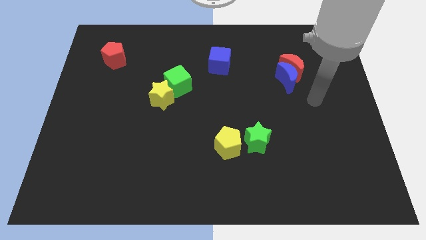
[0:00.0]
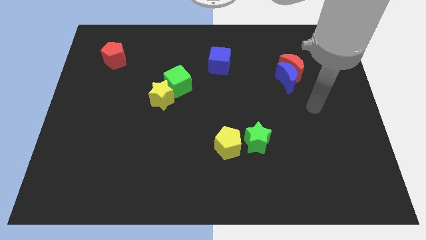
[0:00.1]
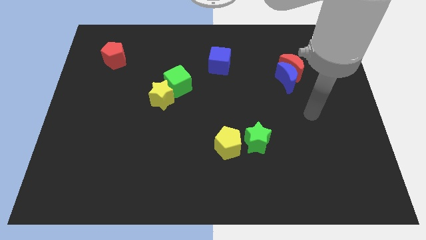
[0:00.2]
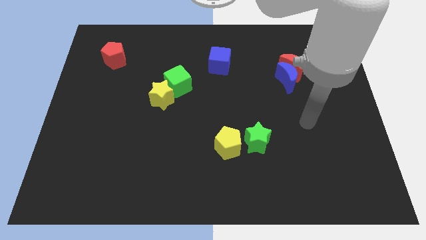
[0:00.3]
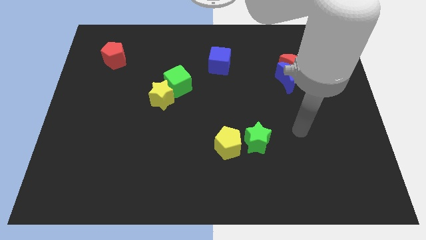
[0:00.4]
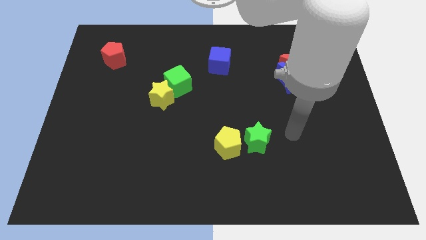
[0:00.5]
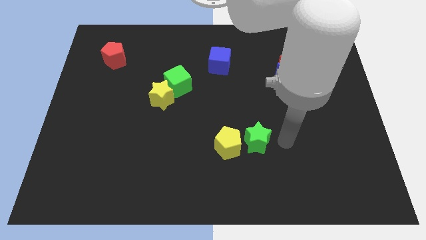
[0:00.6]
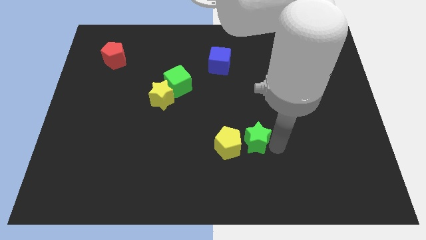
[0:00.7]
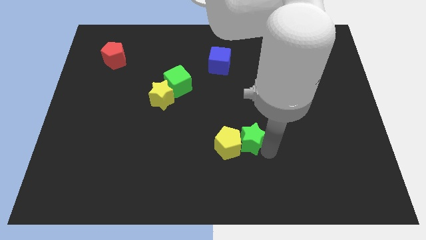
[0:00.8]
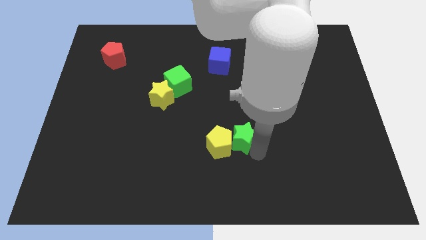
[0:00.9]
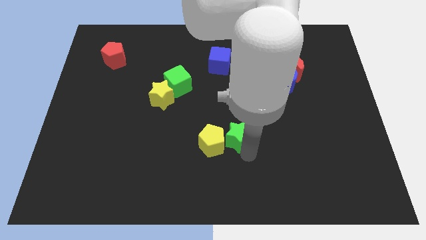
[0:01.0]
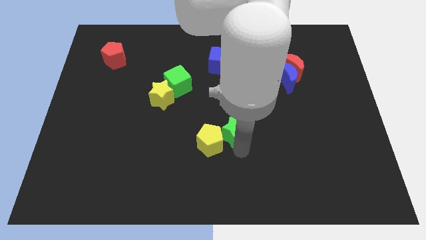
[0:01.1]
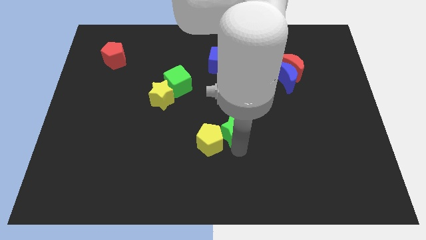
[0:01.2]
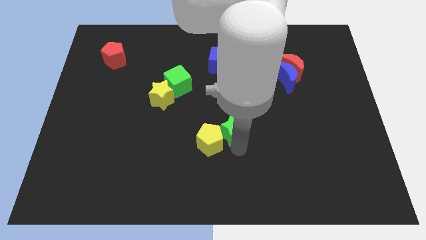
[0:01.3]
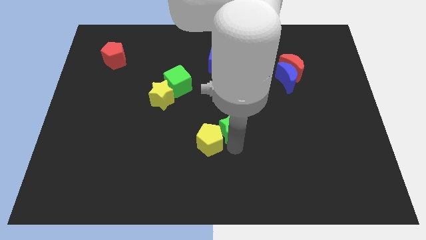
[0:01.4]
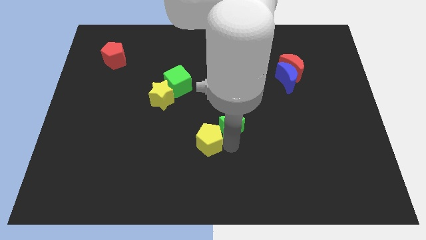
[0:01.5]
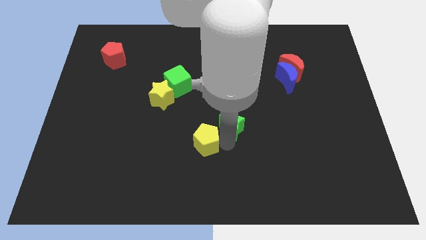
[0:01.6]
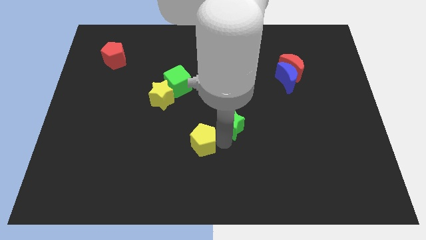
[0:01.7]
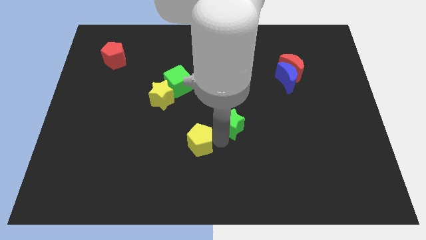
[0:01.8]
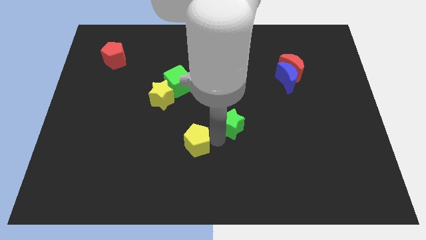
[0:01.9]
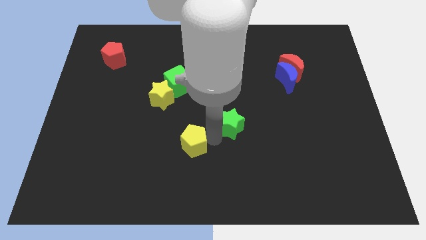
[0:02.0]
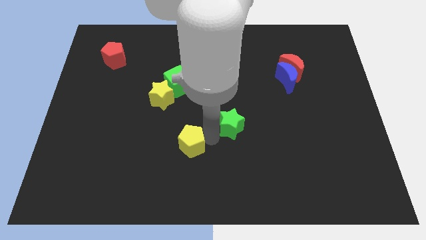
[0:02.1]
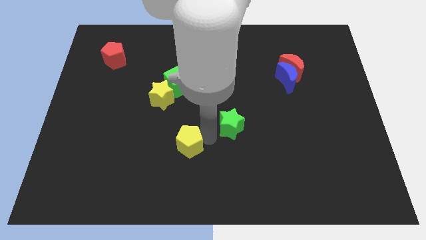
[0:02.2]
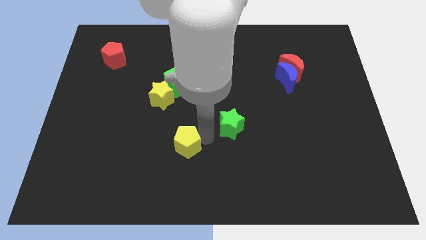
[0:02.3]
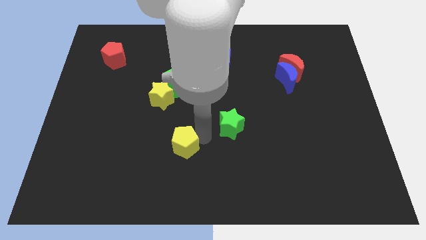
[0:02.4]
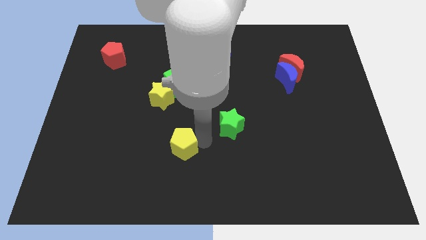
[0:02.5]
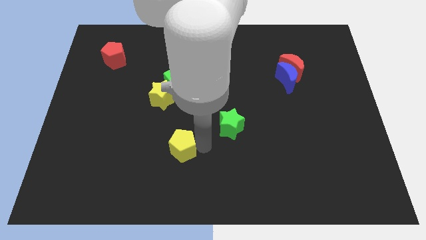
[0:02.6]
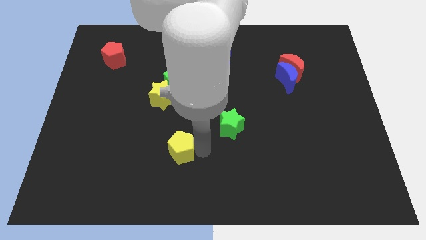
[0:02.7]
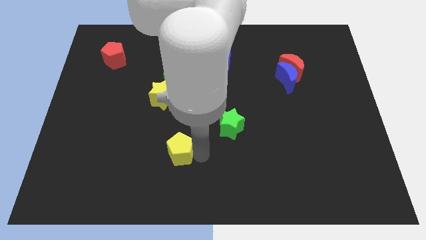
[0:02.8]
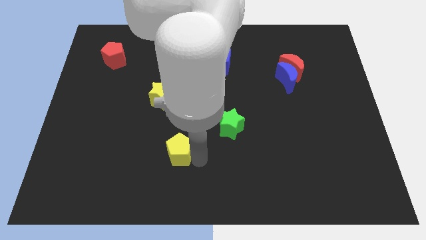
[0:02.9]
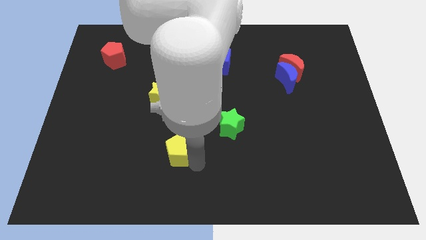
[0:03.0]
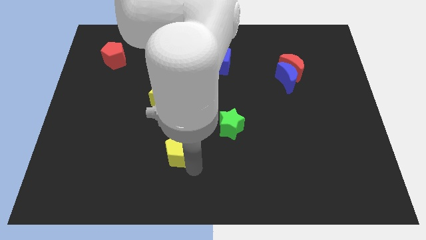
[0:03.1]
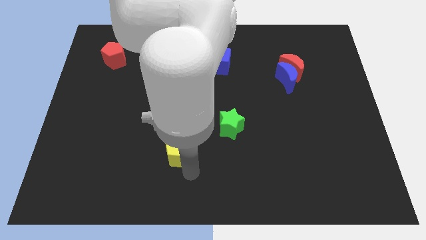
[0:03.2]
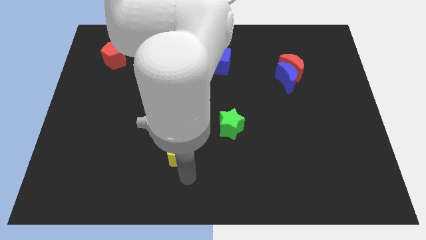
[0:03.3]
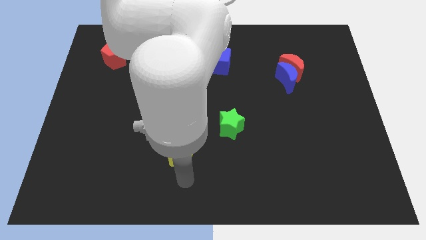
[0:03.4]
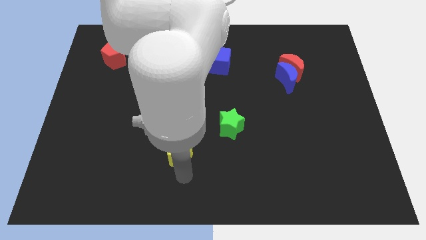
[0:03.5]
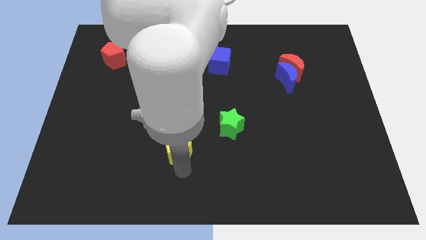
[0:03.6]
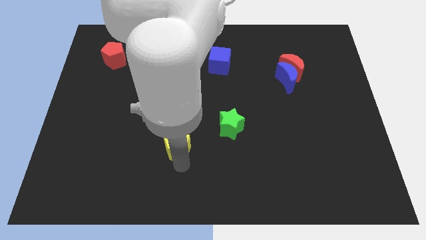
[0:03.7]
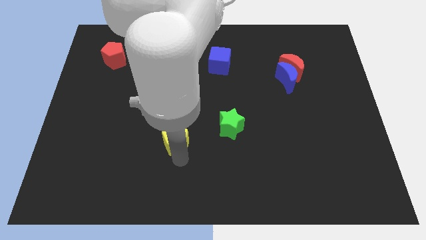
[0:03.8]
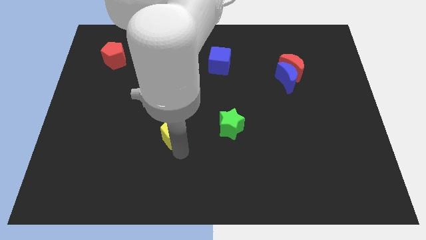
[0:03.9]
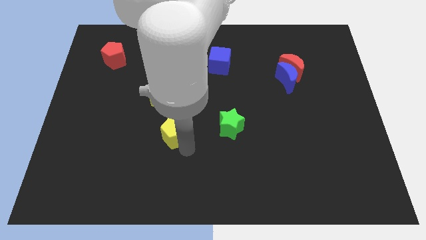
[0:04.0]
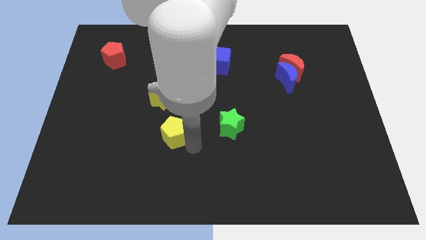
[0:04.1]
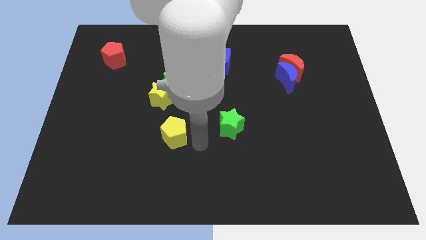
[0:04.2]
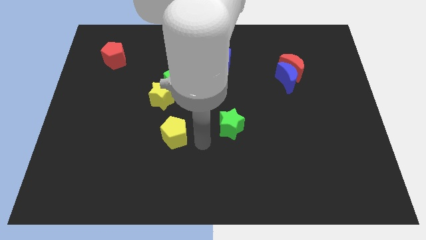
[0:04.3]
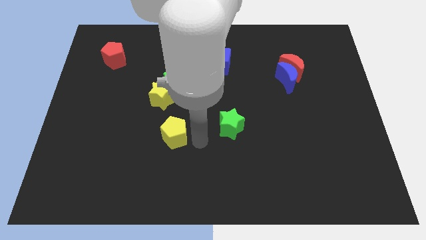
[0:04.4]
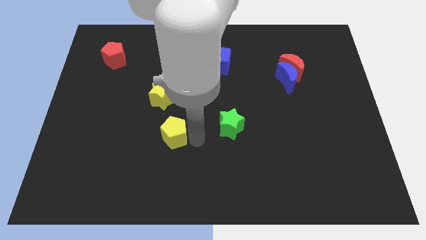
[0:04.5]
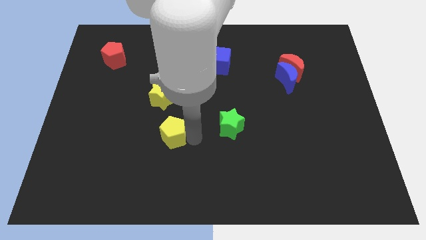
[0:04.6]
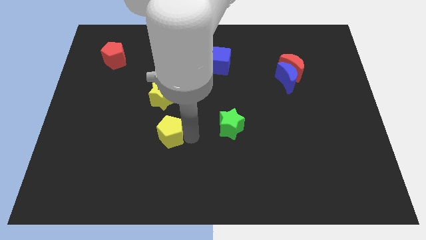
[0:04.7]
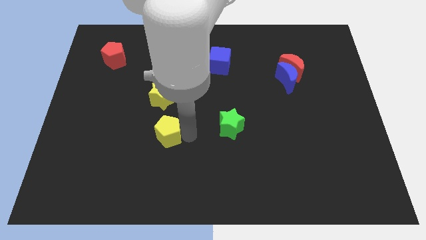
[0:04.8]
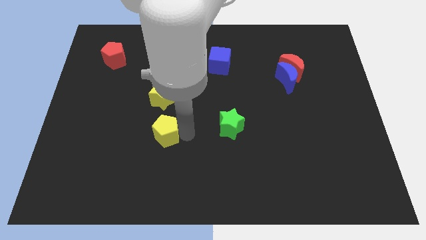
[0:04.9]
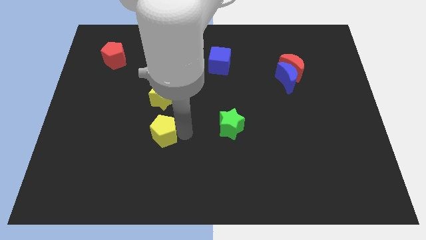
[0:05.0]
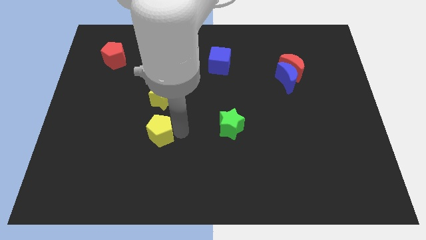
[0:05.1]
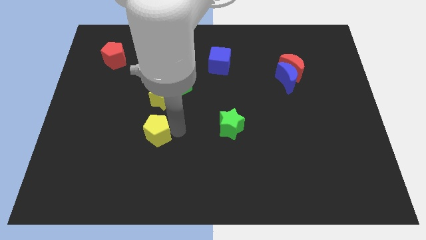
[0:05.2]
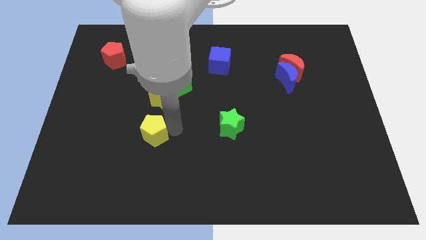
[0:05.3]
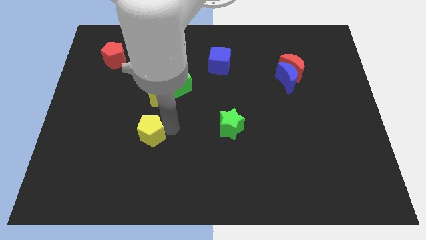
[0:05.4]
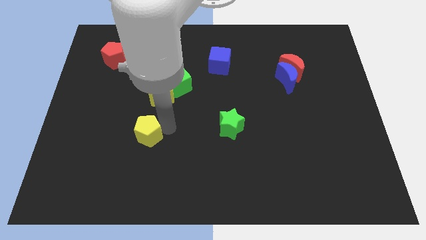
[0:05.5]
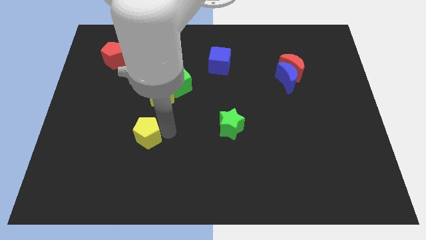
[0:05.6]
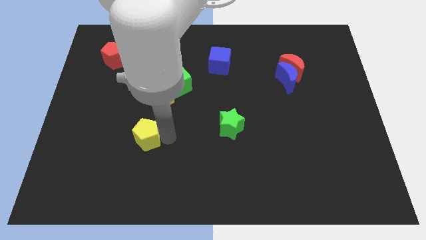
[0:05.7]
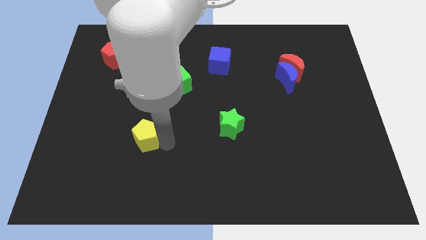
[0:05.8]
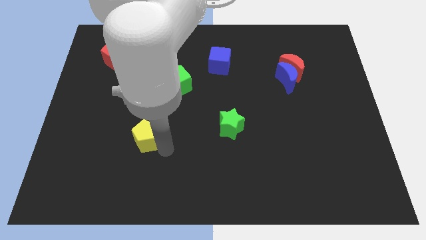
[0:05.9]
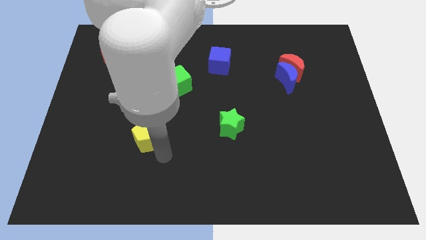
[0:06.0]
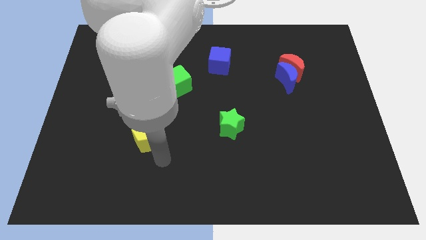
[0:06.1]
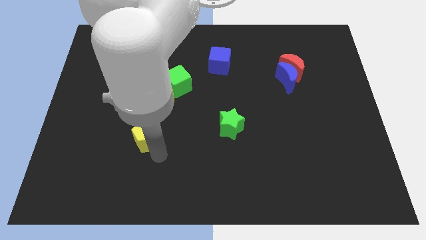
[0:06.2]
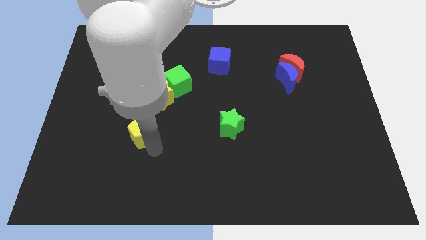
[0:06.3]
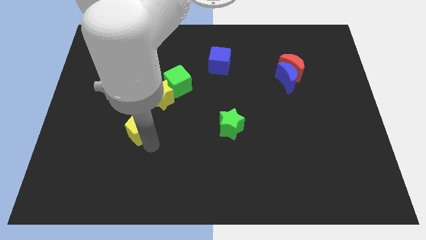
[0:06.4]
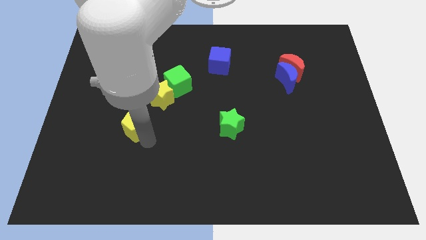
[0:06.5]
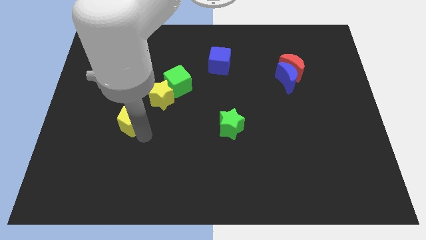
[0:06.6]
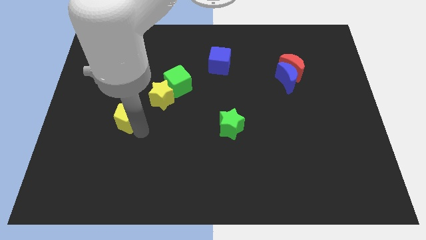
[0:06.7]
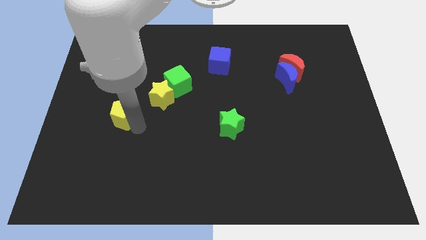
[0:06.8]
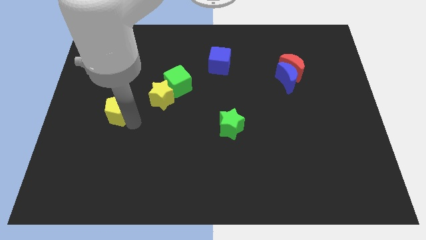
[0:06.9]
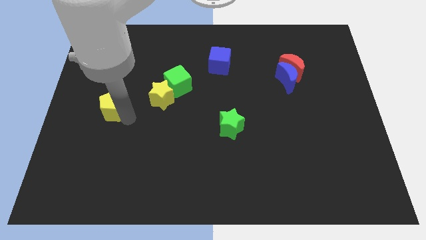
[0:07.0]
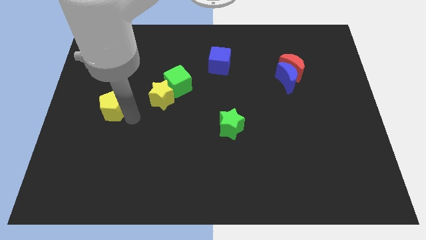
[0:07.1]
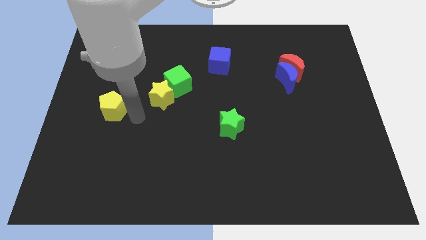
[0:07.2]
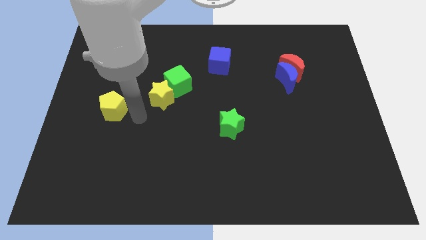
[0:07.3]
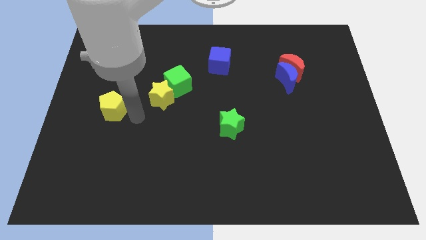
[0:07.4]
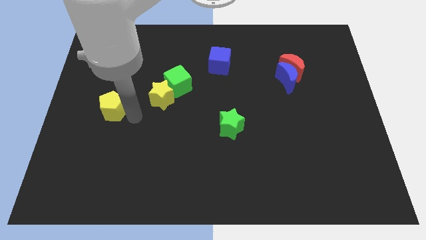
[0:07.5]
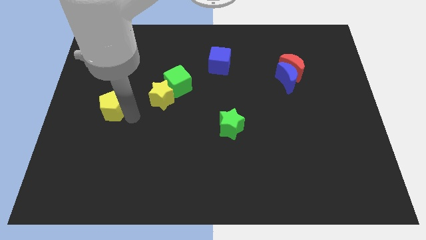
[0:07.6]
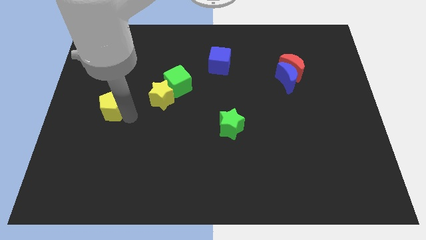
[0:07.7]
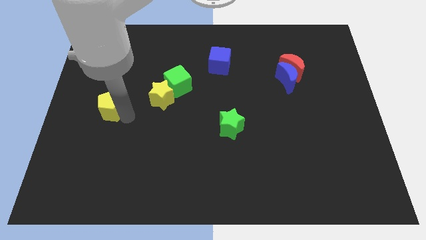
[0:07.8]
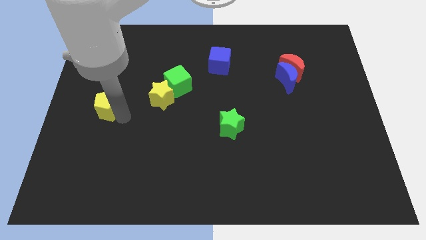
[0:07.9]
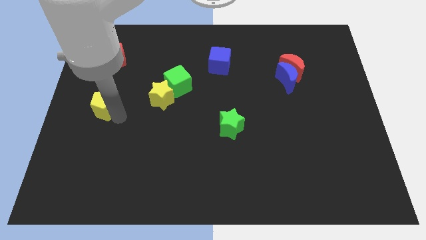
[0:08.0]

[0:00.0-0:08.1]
slide the yellow pentagon to the center left

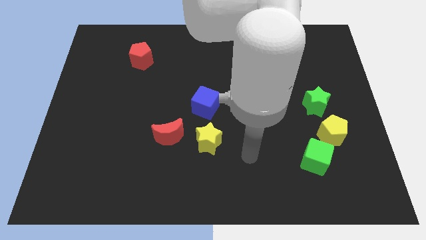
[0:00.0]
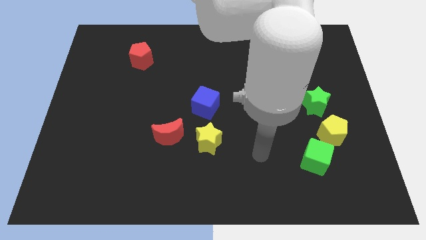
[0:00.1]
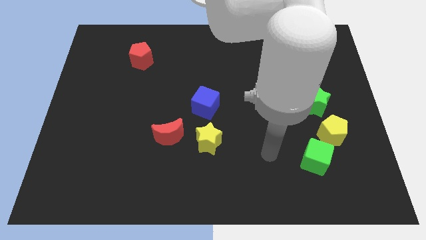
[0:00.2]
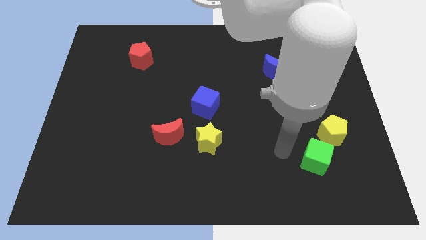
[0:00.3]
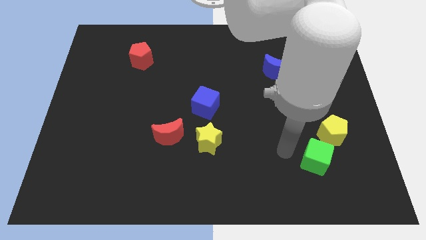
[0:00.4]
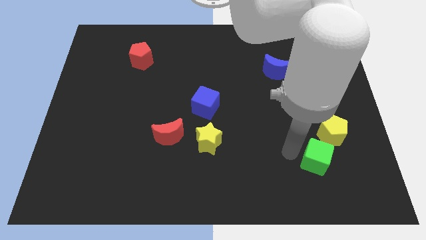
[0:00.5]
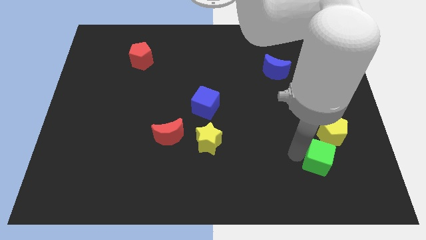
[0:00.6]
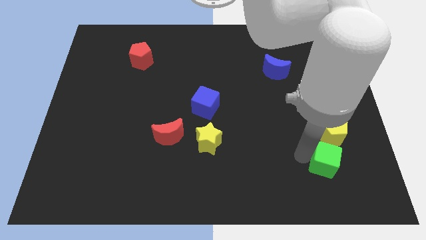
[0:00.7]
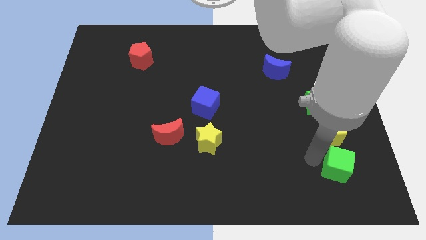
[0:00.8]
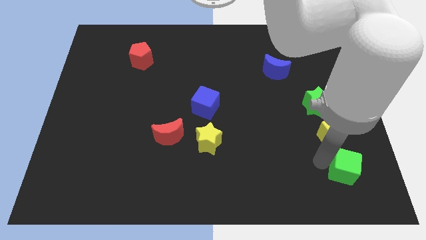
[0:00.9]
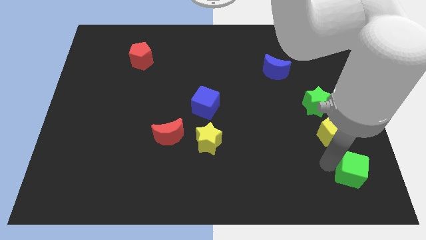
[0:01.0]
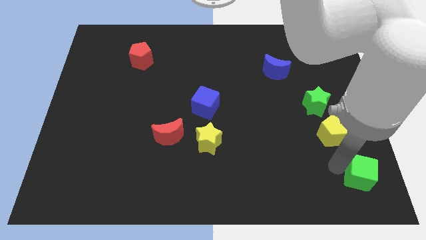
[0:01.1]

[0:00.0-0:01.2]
put the green cube to the bottom right corner
